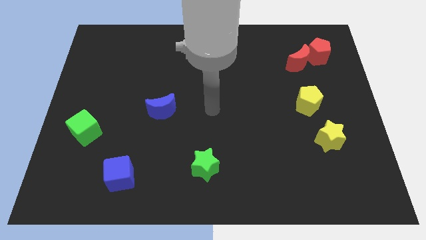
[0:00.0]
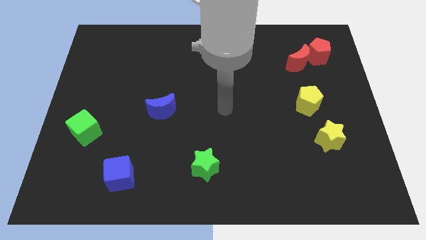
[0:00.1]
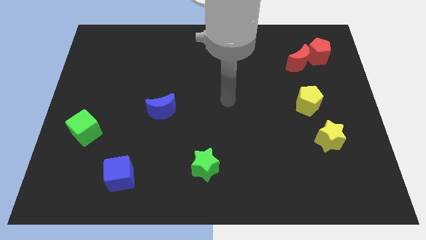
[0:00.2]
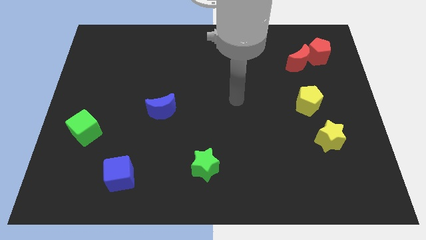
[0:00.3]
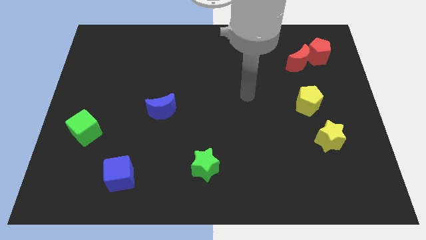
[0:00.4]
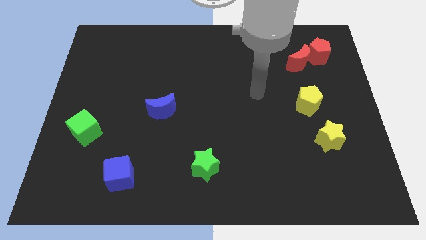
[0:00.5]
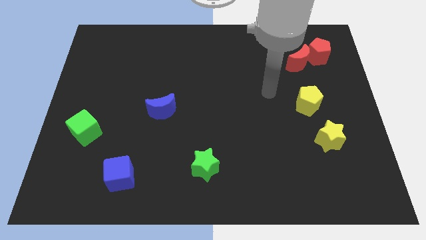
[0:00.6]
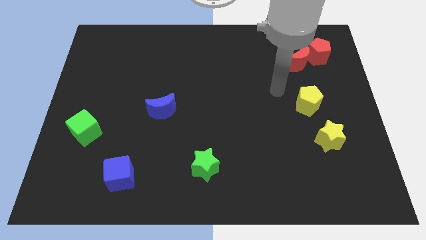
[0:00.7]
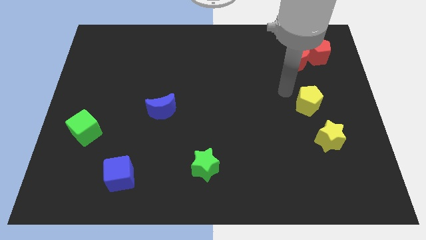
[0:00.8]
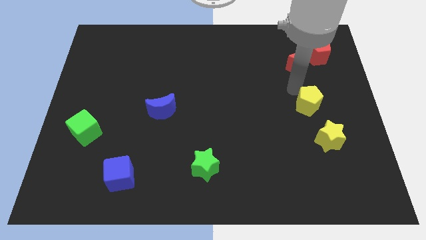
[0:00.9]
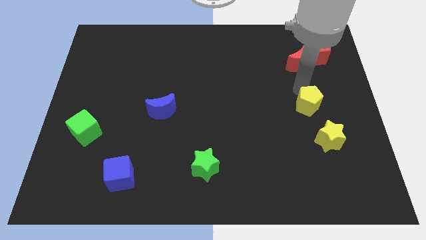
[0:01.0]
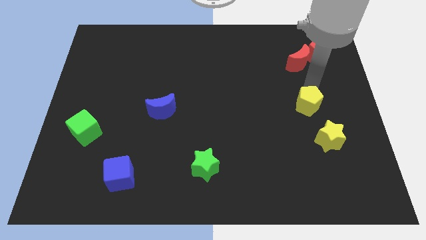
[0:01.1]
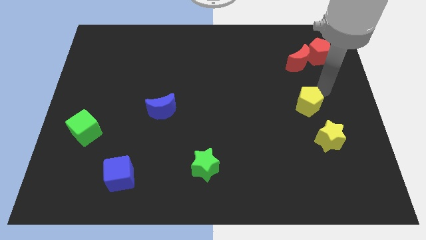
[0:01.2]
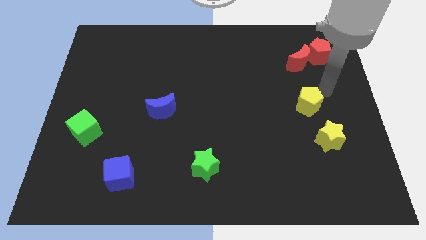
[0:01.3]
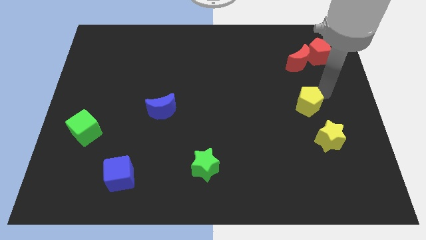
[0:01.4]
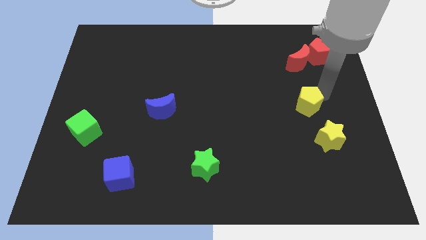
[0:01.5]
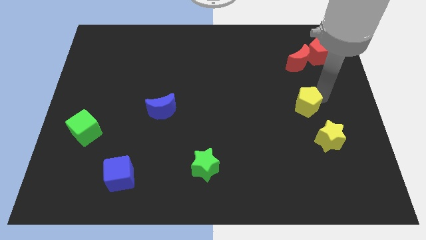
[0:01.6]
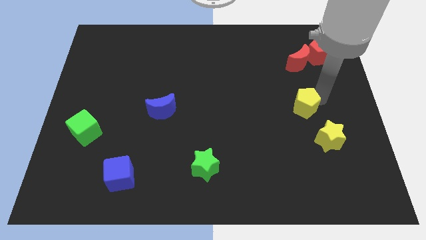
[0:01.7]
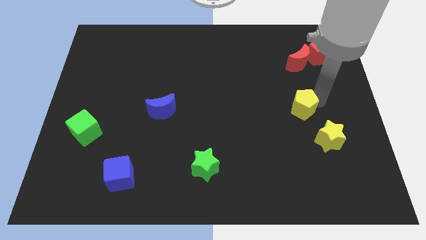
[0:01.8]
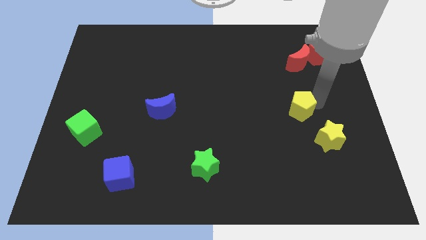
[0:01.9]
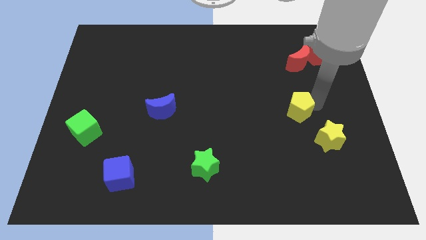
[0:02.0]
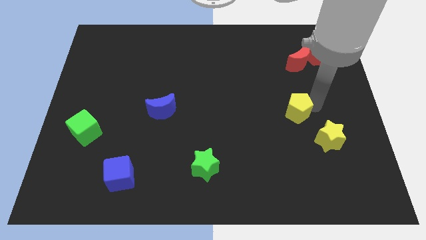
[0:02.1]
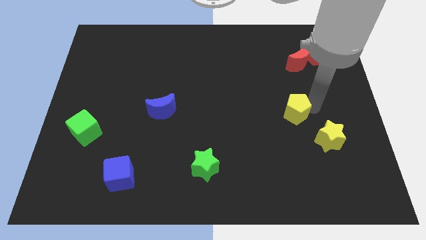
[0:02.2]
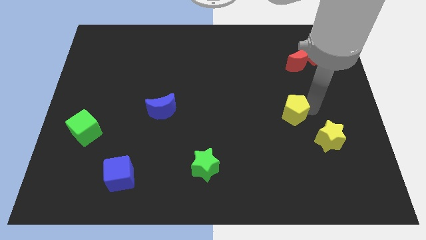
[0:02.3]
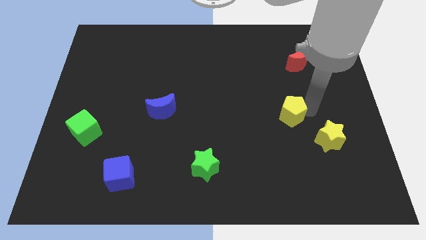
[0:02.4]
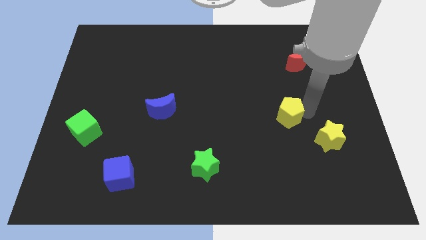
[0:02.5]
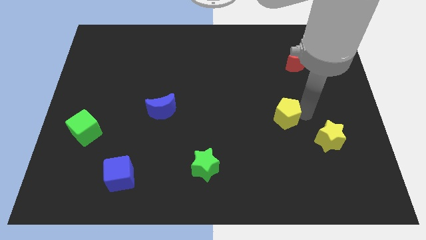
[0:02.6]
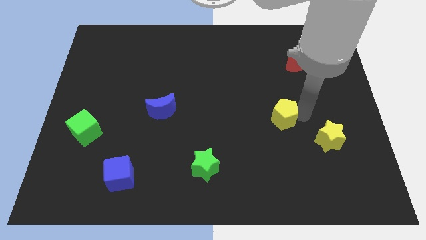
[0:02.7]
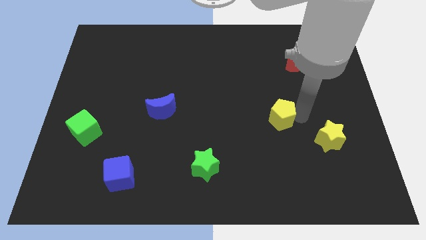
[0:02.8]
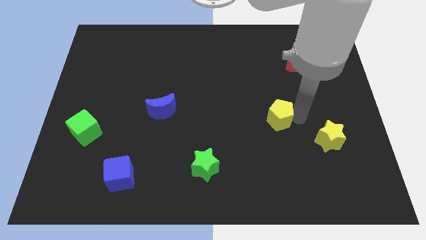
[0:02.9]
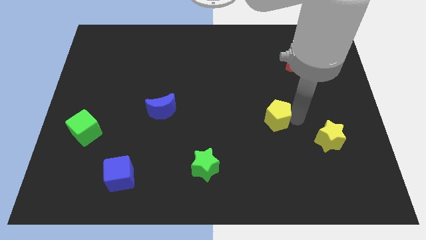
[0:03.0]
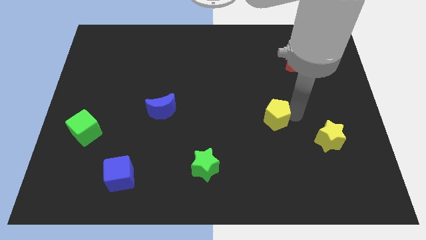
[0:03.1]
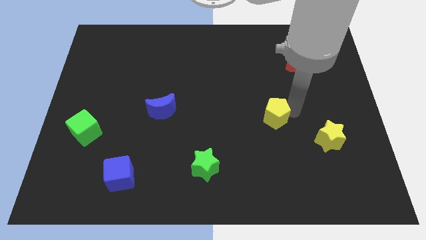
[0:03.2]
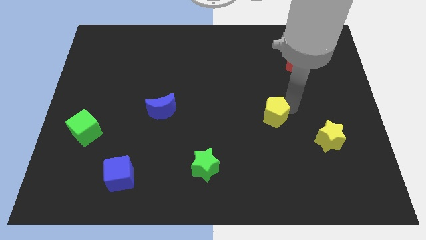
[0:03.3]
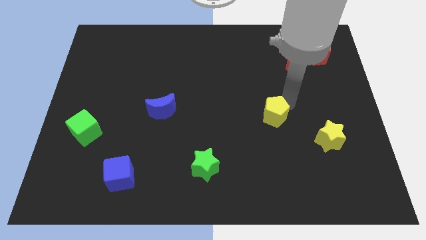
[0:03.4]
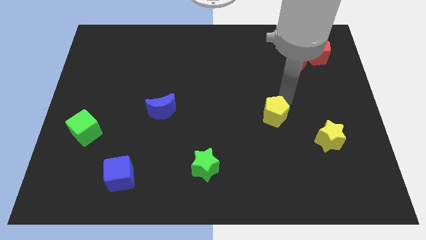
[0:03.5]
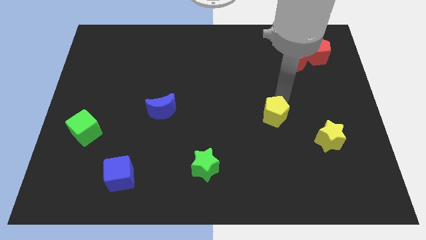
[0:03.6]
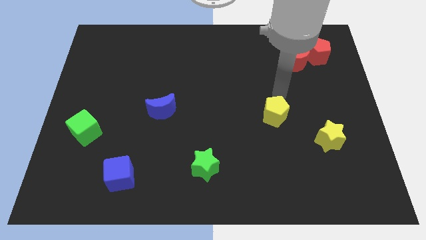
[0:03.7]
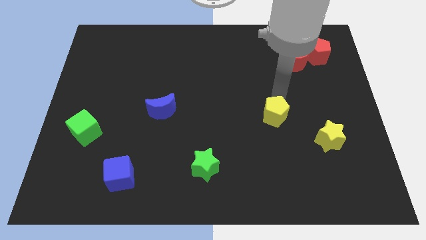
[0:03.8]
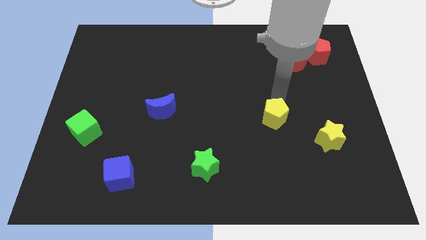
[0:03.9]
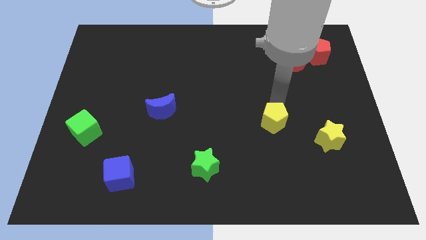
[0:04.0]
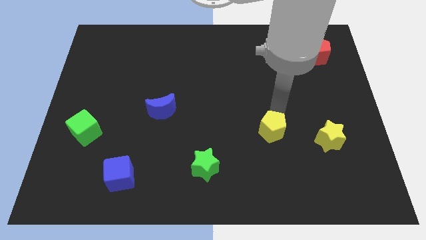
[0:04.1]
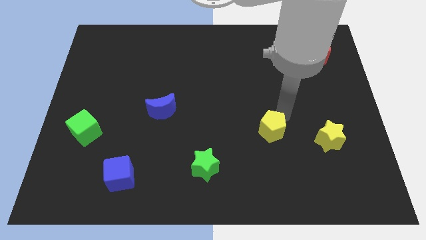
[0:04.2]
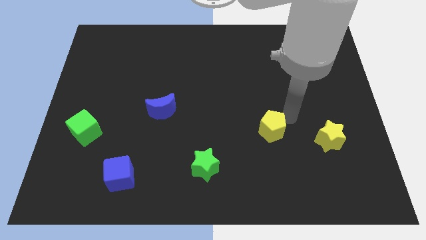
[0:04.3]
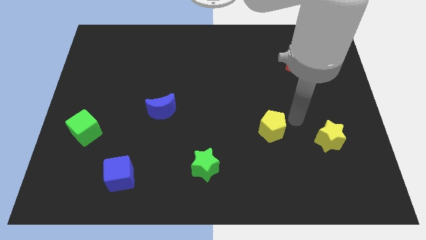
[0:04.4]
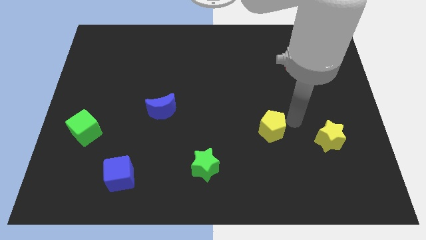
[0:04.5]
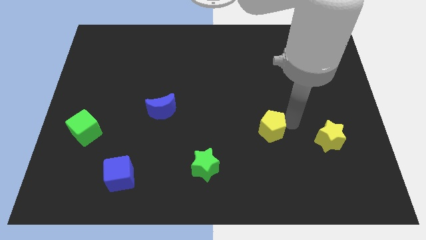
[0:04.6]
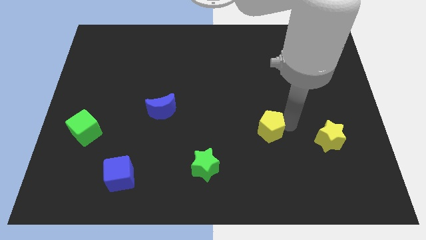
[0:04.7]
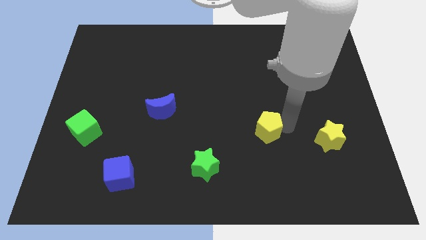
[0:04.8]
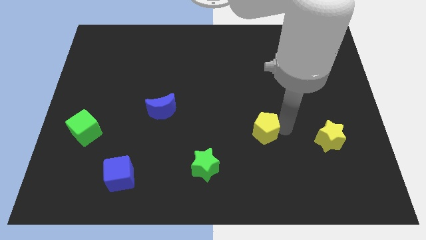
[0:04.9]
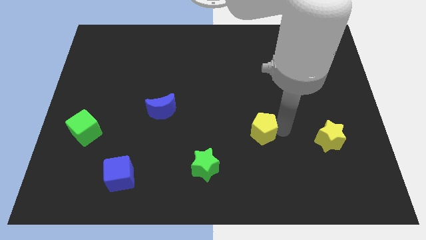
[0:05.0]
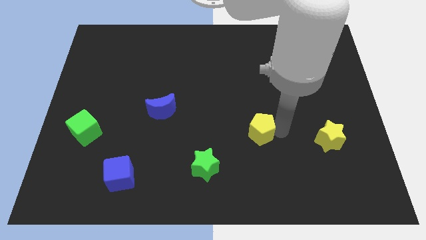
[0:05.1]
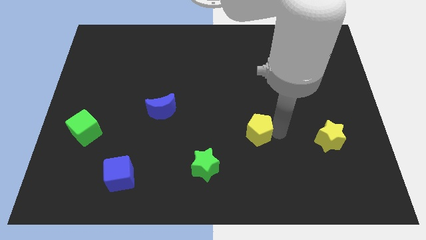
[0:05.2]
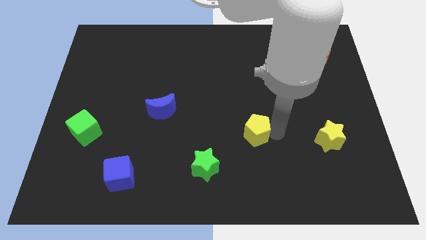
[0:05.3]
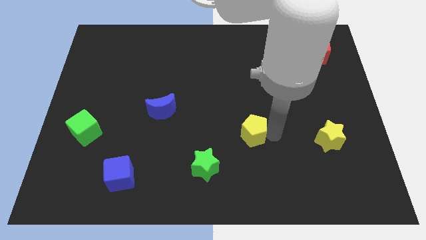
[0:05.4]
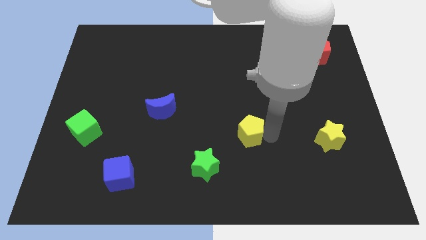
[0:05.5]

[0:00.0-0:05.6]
move the yellow pentagon to the top right of the green star

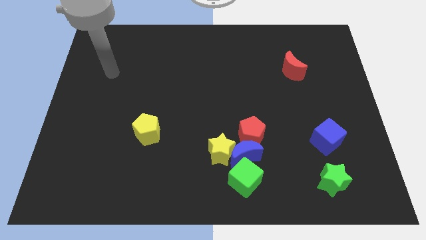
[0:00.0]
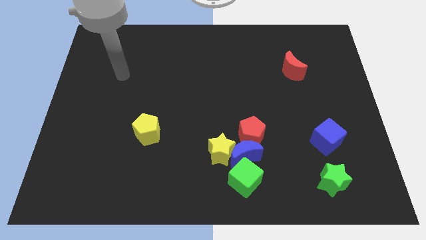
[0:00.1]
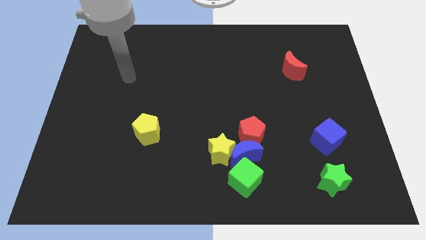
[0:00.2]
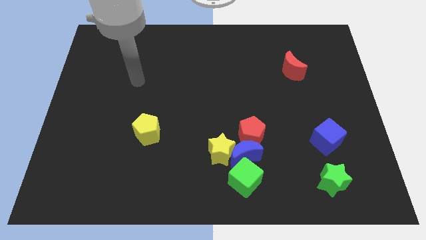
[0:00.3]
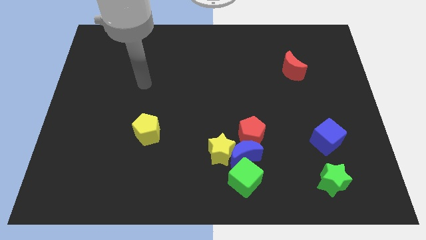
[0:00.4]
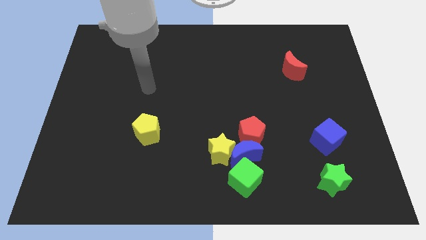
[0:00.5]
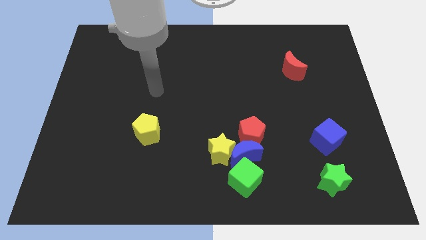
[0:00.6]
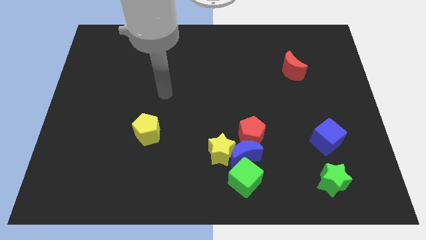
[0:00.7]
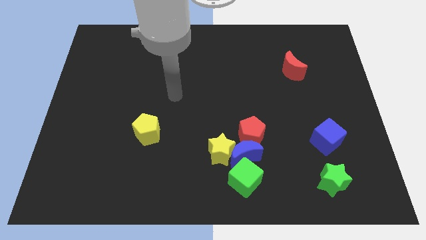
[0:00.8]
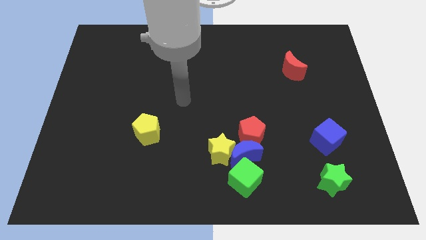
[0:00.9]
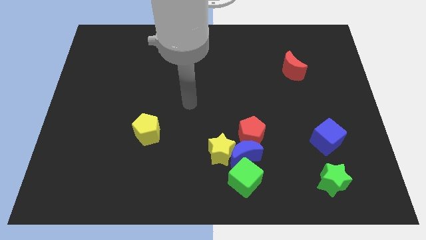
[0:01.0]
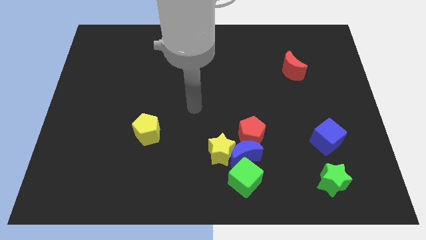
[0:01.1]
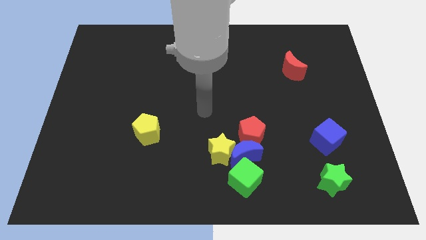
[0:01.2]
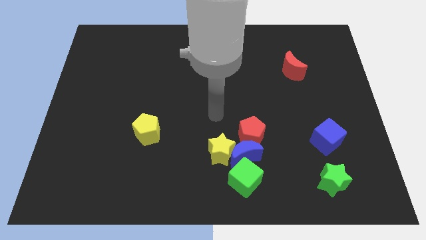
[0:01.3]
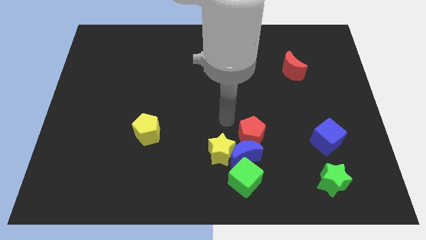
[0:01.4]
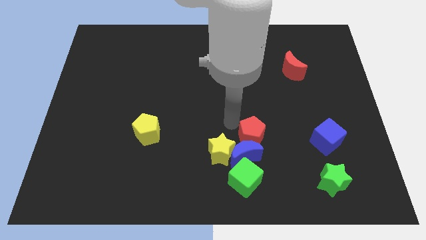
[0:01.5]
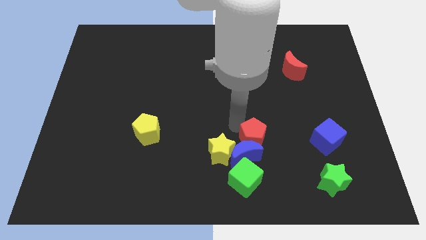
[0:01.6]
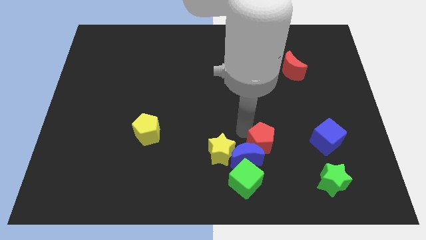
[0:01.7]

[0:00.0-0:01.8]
push the red pentagon right of the blue moon
